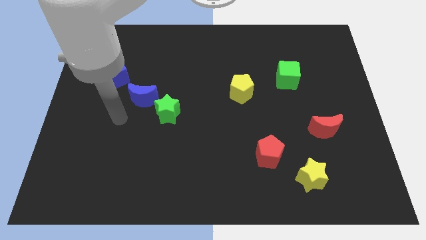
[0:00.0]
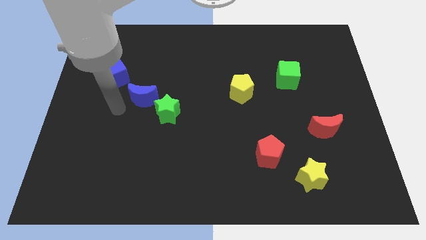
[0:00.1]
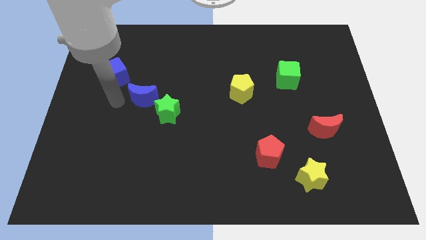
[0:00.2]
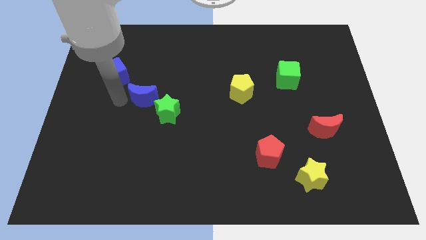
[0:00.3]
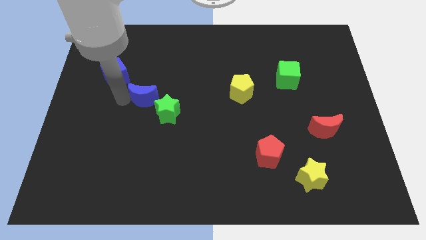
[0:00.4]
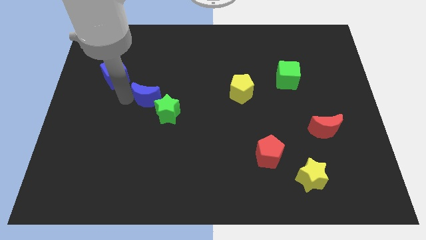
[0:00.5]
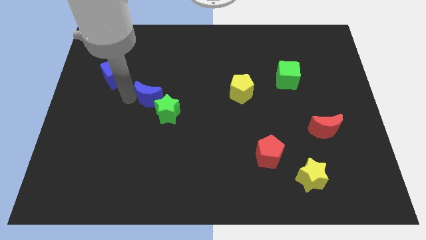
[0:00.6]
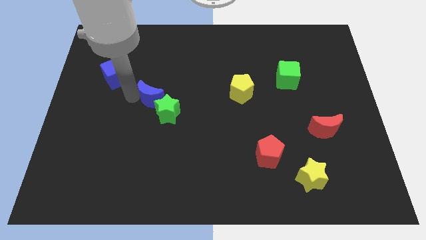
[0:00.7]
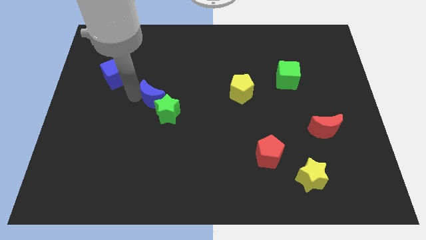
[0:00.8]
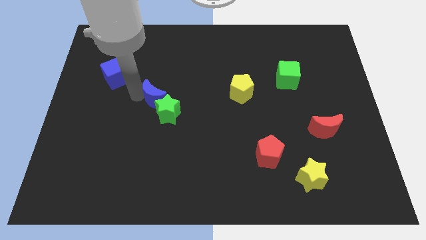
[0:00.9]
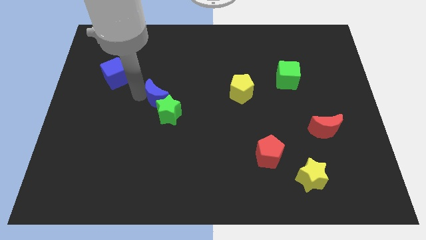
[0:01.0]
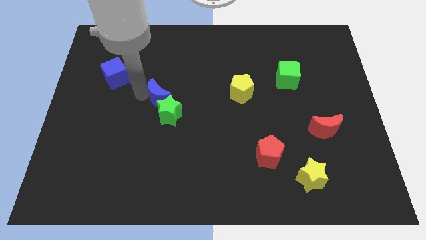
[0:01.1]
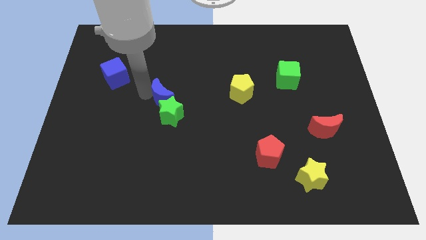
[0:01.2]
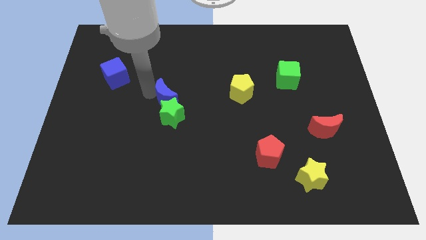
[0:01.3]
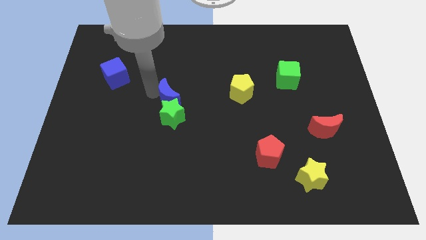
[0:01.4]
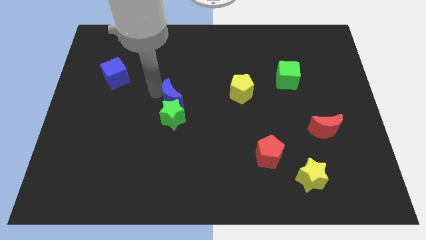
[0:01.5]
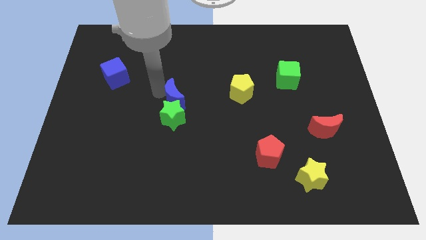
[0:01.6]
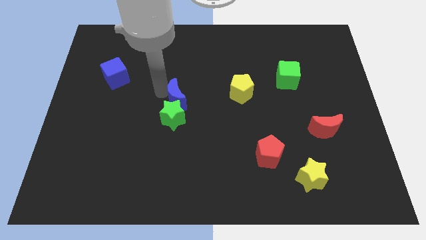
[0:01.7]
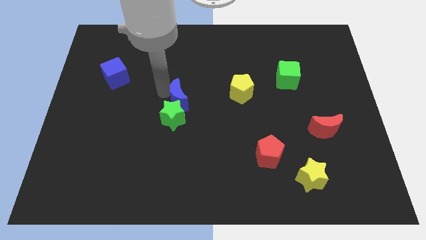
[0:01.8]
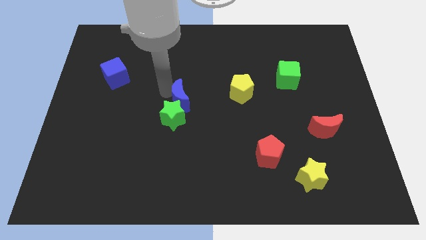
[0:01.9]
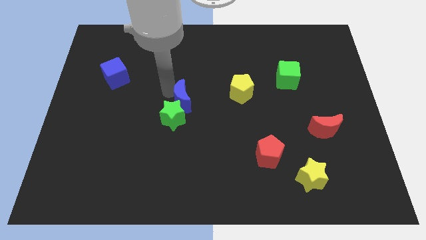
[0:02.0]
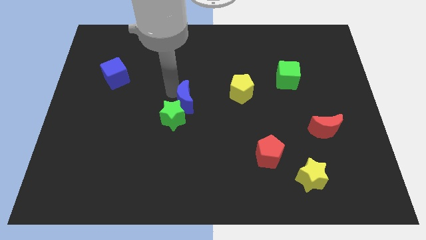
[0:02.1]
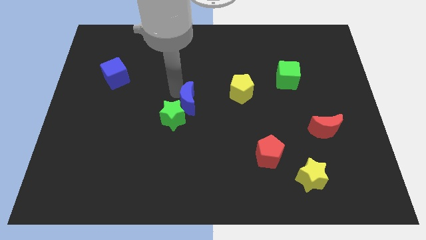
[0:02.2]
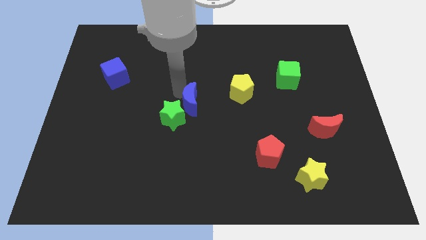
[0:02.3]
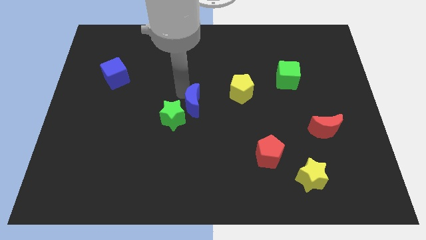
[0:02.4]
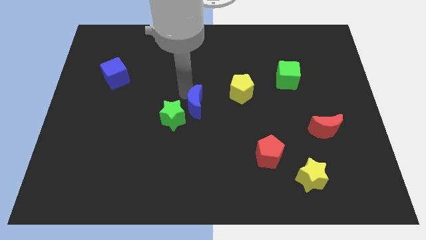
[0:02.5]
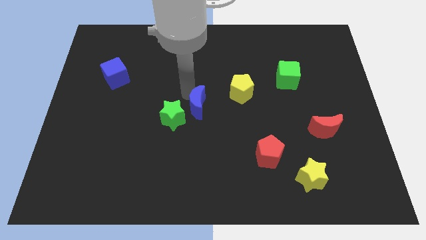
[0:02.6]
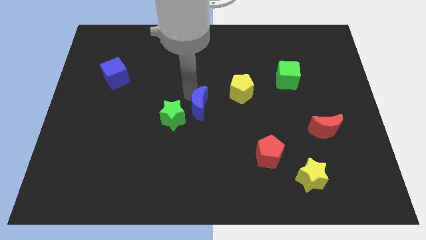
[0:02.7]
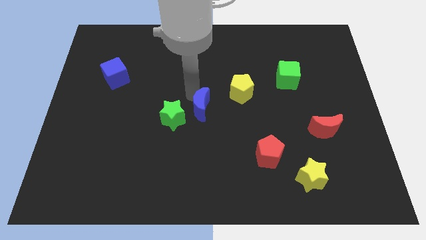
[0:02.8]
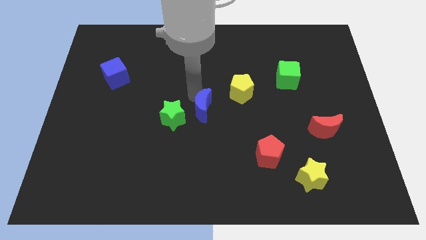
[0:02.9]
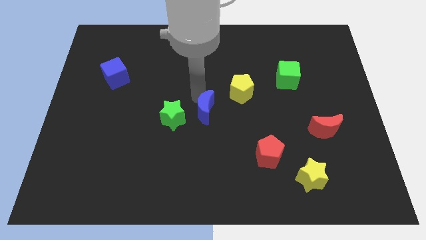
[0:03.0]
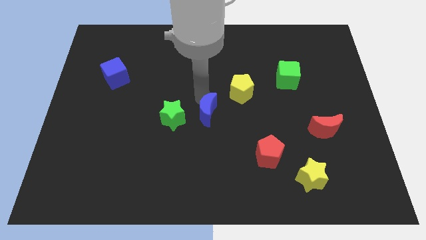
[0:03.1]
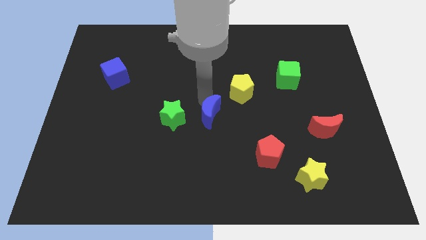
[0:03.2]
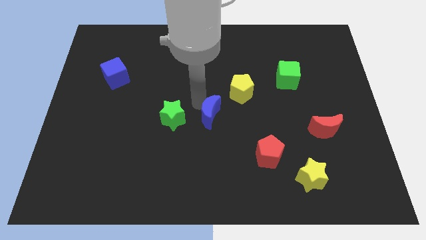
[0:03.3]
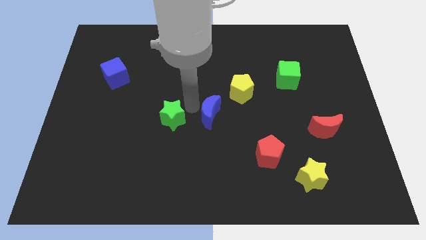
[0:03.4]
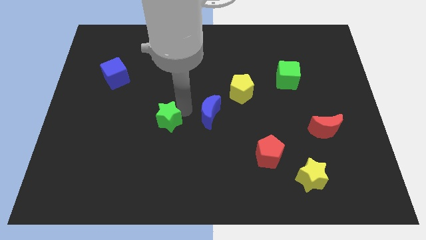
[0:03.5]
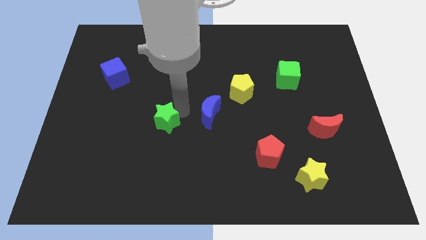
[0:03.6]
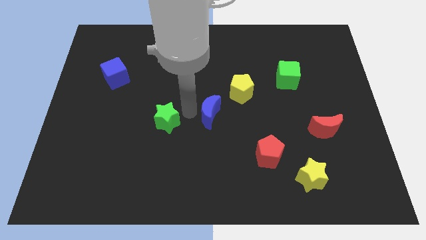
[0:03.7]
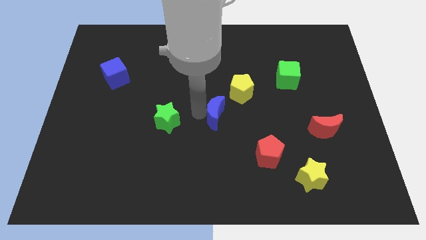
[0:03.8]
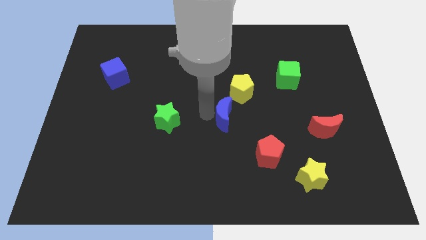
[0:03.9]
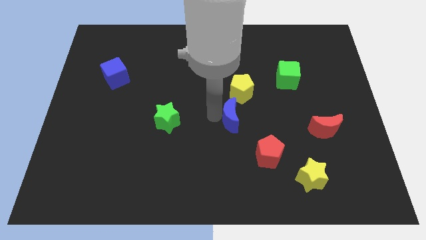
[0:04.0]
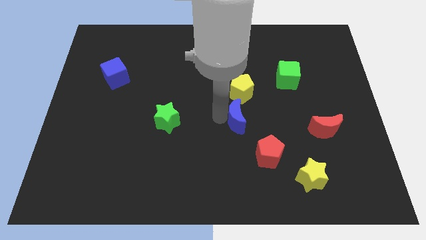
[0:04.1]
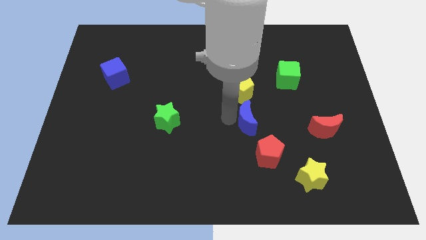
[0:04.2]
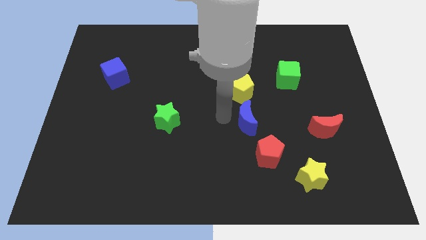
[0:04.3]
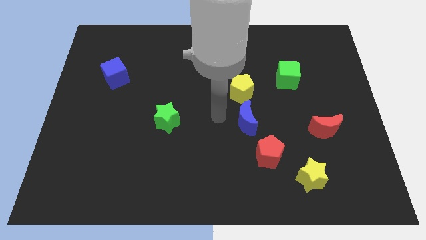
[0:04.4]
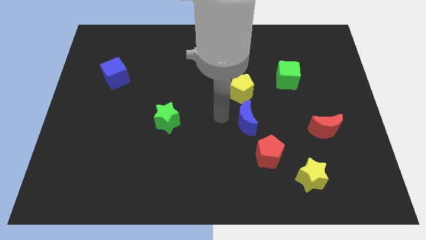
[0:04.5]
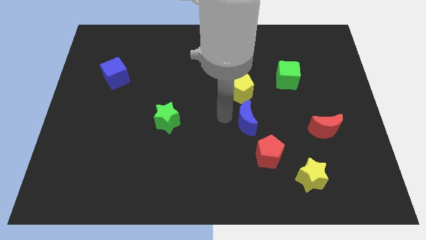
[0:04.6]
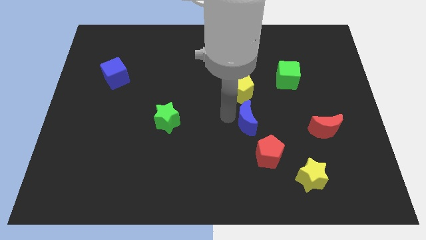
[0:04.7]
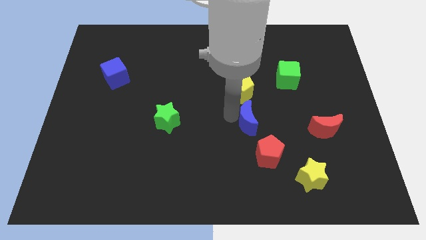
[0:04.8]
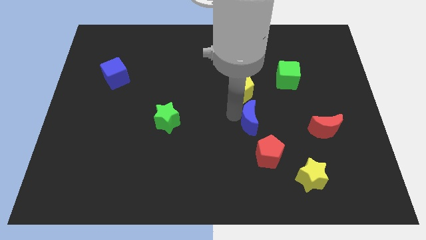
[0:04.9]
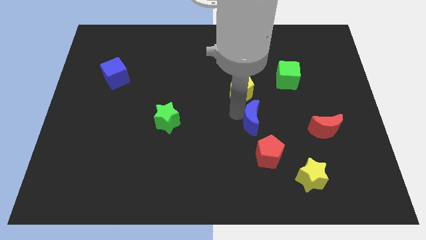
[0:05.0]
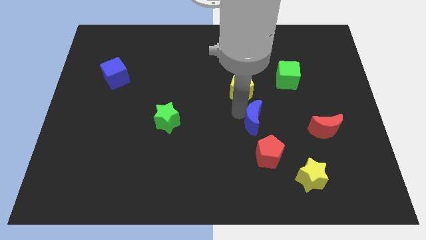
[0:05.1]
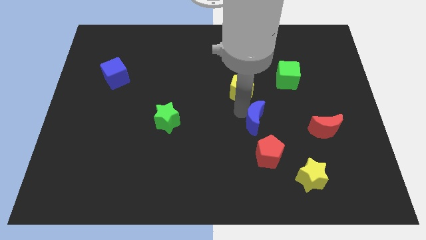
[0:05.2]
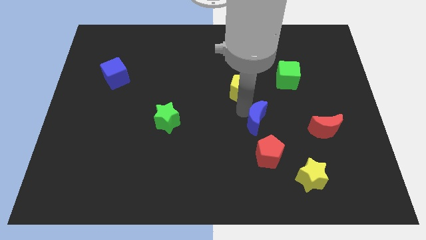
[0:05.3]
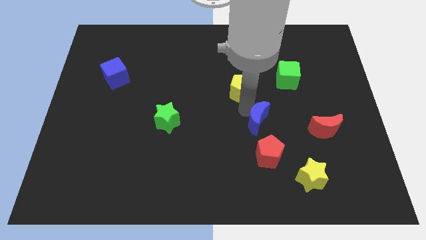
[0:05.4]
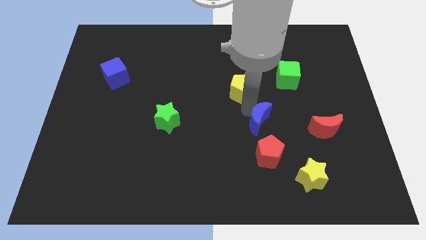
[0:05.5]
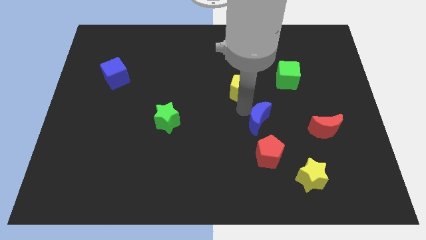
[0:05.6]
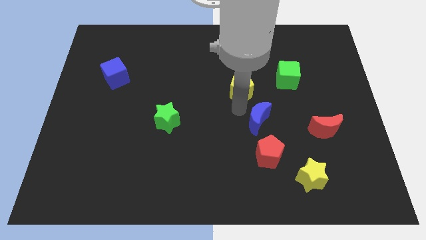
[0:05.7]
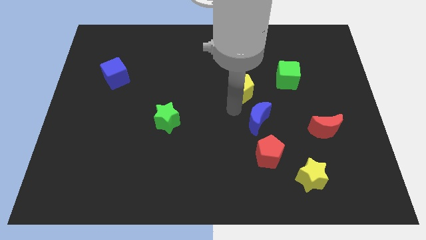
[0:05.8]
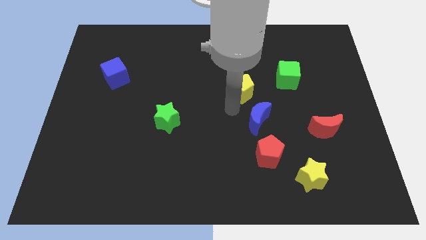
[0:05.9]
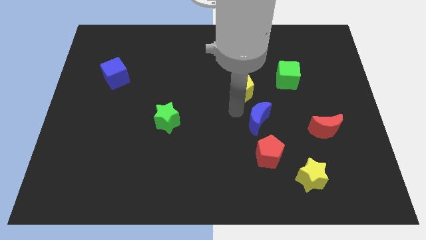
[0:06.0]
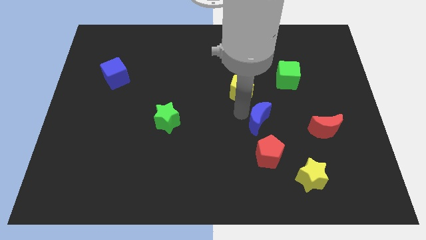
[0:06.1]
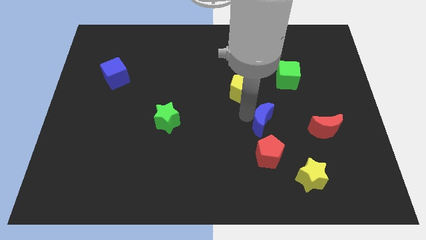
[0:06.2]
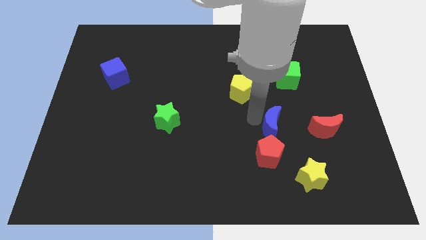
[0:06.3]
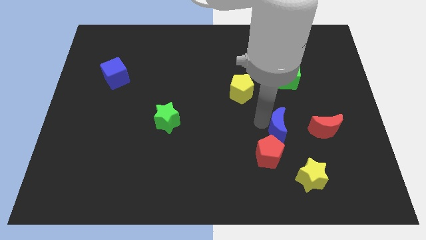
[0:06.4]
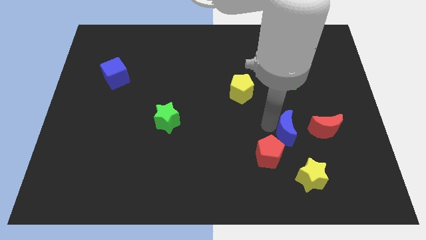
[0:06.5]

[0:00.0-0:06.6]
push the blue moon to the top of the yellow star

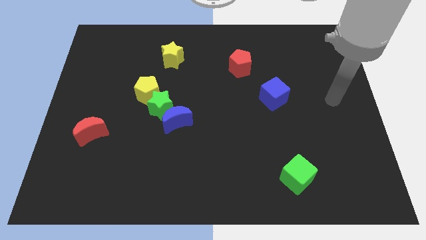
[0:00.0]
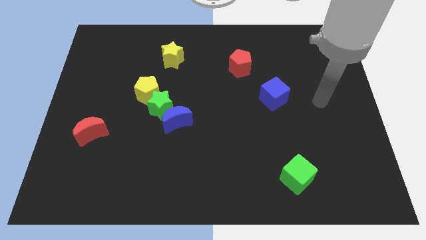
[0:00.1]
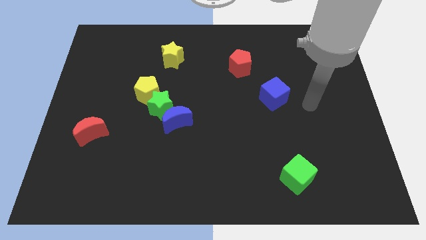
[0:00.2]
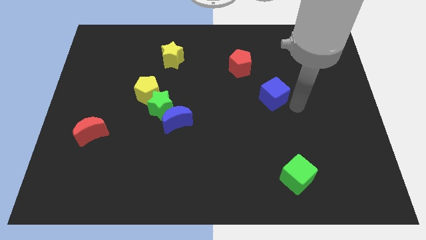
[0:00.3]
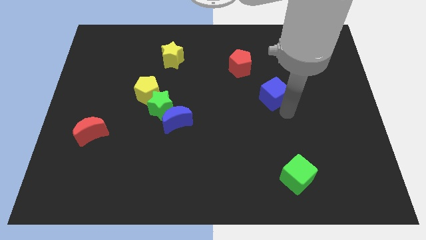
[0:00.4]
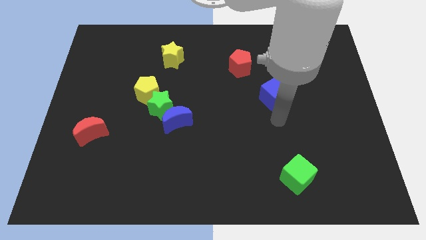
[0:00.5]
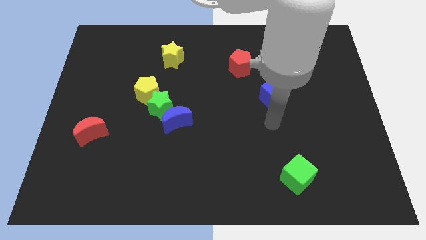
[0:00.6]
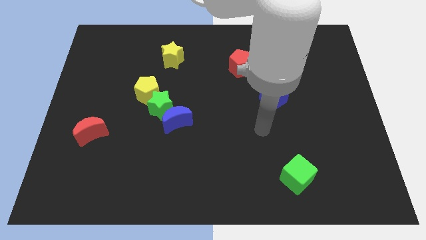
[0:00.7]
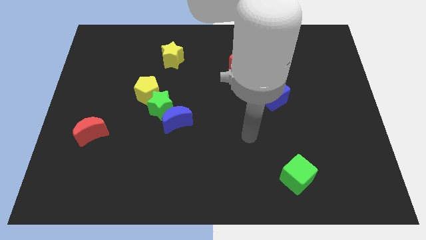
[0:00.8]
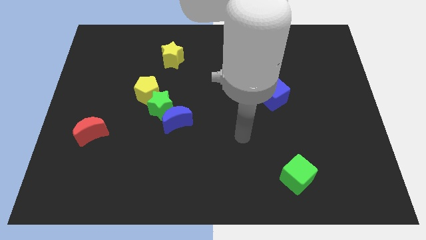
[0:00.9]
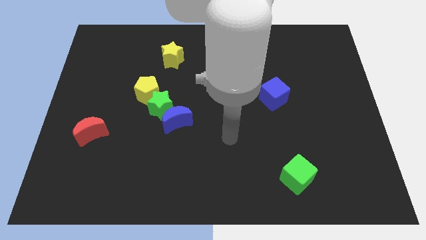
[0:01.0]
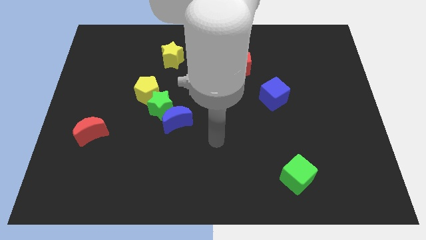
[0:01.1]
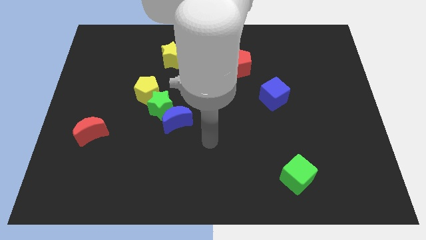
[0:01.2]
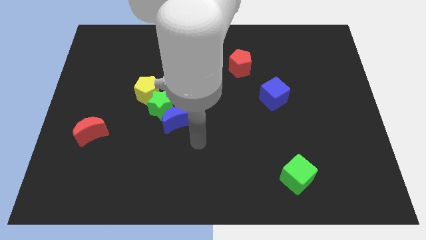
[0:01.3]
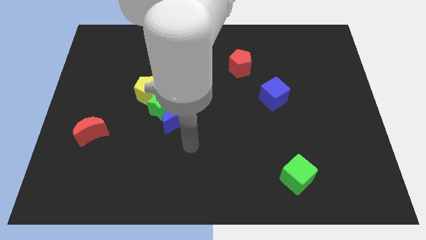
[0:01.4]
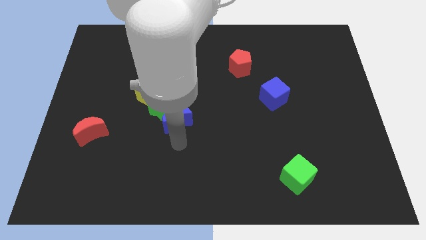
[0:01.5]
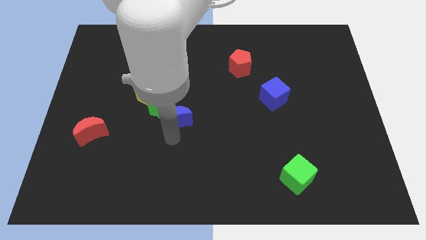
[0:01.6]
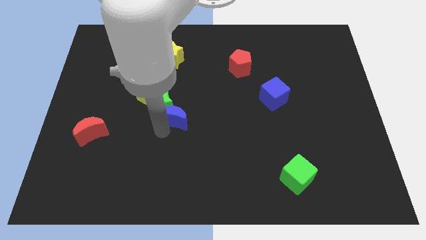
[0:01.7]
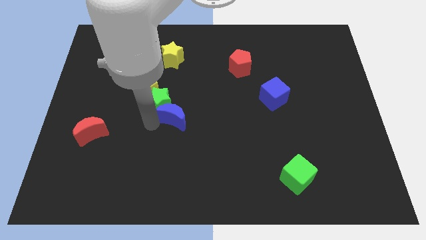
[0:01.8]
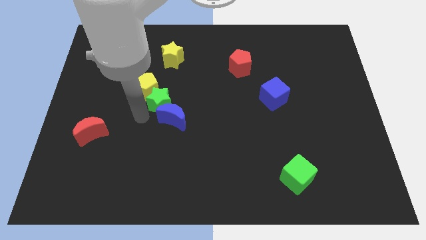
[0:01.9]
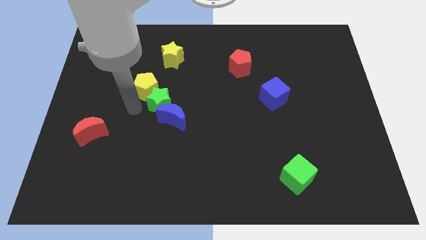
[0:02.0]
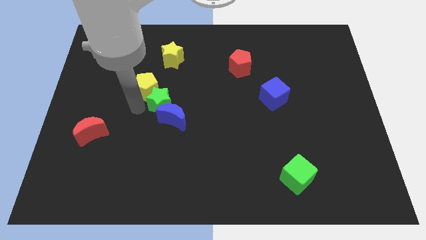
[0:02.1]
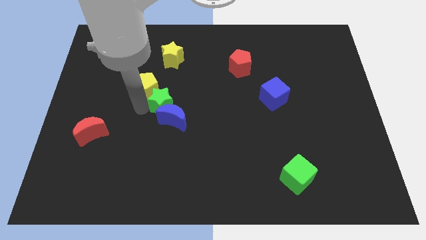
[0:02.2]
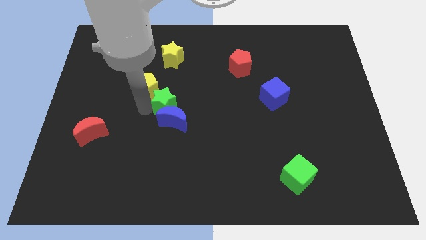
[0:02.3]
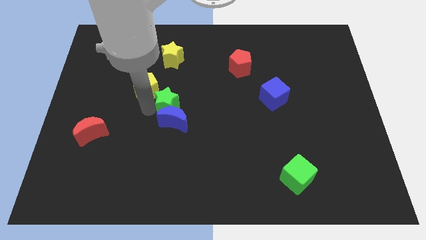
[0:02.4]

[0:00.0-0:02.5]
move the green star to the top right of the blue moon
